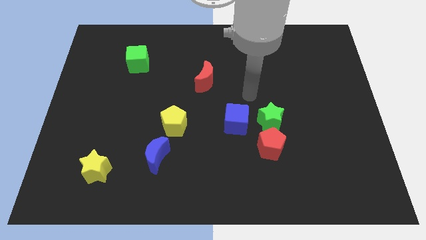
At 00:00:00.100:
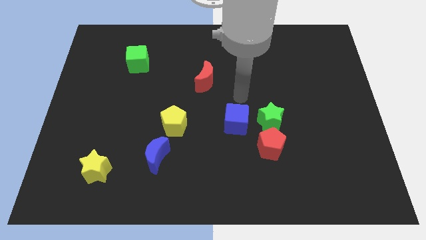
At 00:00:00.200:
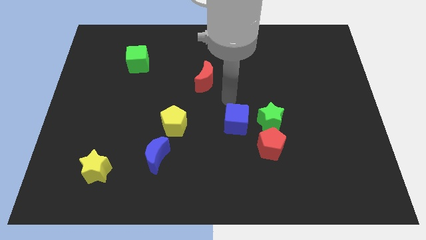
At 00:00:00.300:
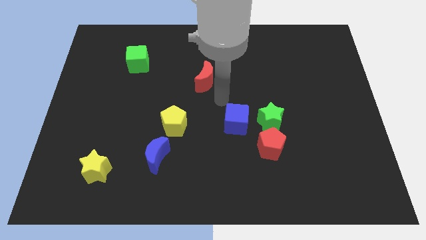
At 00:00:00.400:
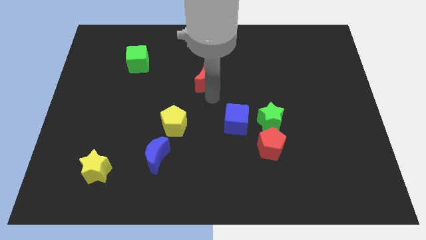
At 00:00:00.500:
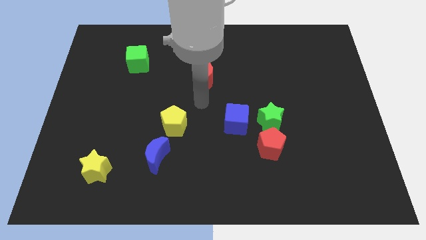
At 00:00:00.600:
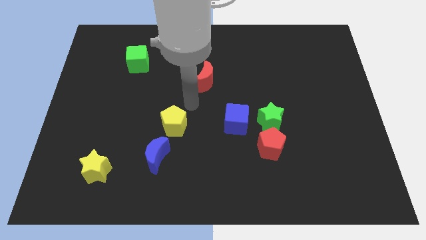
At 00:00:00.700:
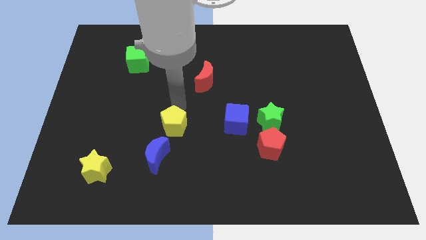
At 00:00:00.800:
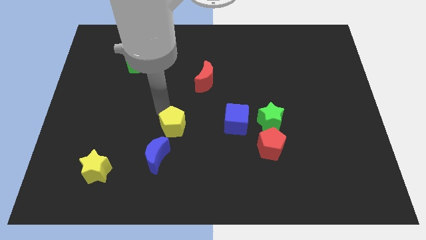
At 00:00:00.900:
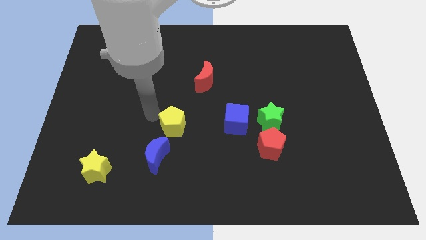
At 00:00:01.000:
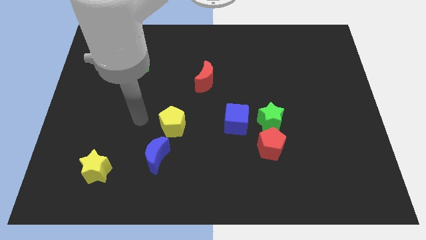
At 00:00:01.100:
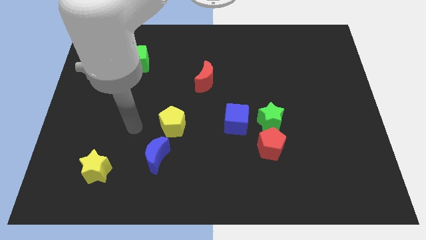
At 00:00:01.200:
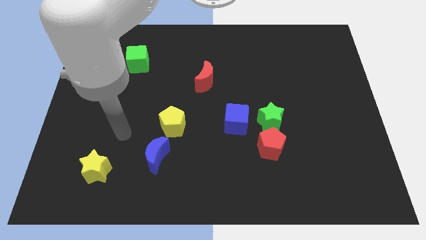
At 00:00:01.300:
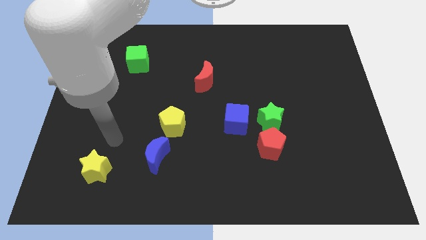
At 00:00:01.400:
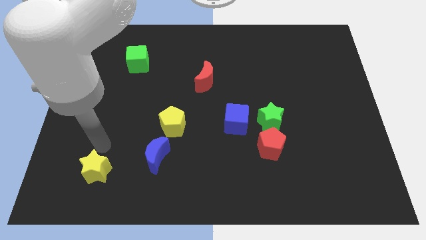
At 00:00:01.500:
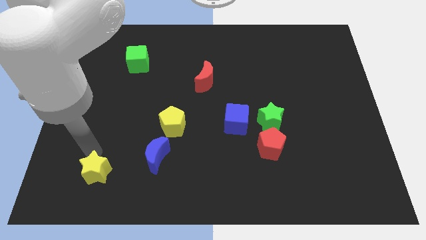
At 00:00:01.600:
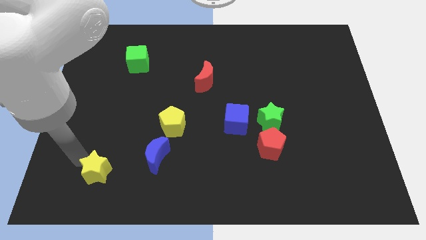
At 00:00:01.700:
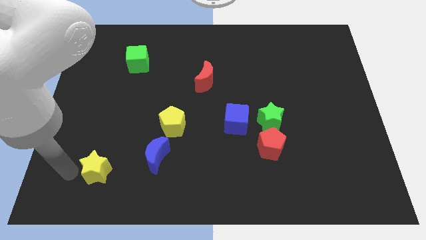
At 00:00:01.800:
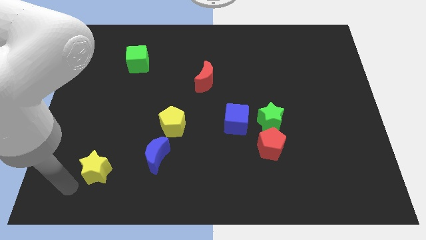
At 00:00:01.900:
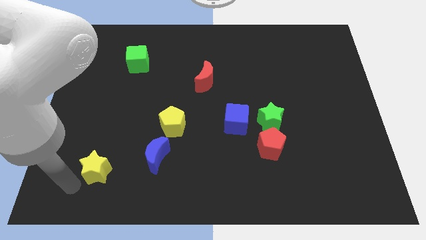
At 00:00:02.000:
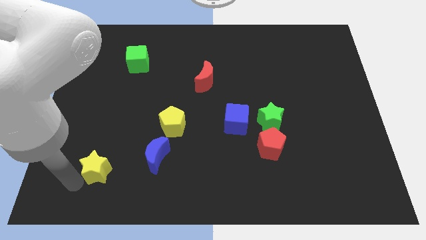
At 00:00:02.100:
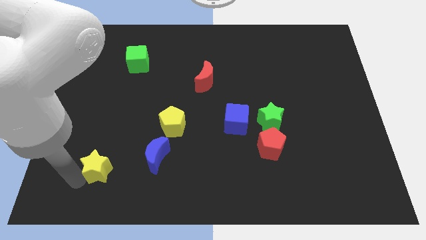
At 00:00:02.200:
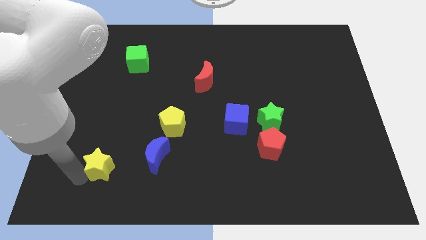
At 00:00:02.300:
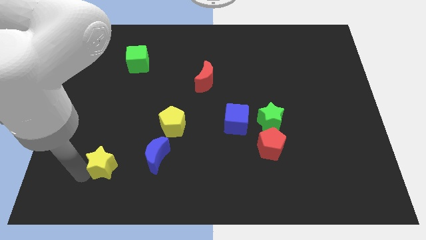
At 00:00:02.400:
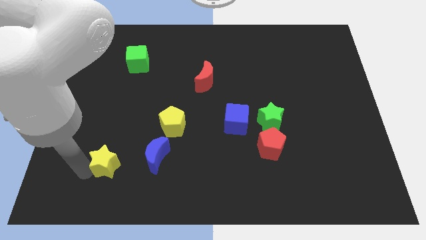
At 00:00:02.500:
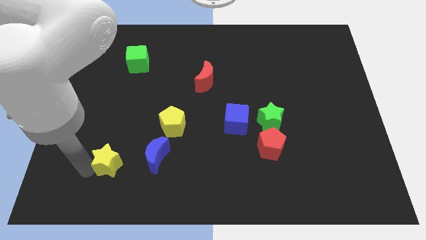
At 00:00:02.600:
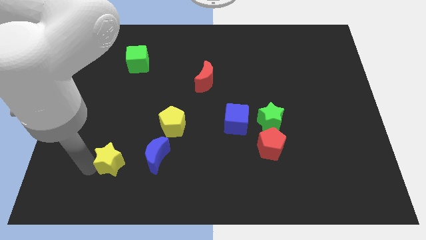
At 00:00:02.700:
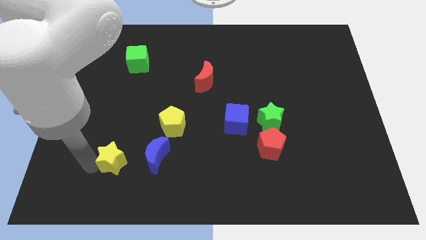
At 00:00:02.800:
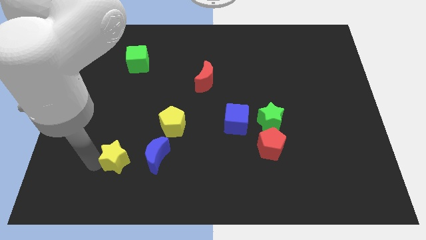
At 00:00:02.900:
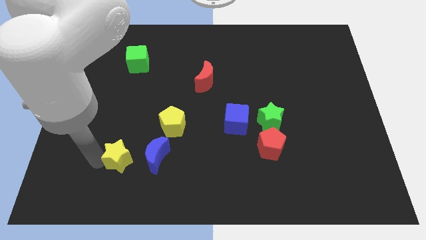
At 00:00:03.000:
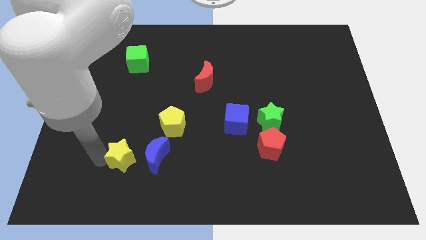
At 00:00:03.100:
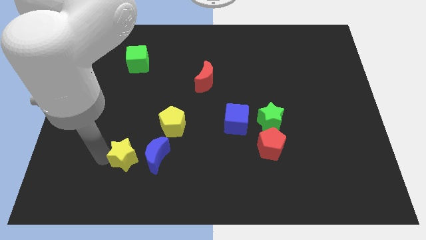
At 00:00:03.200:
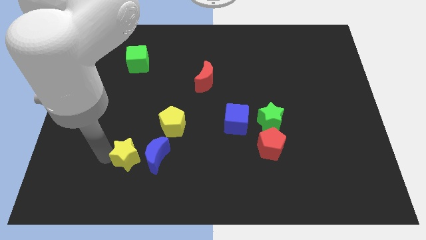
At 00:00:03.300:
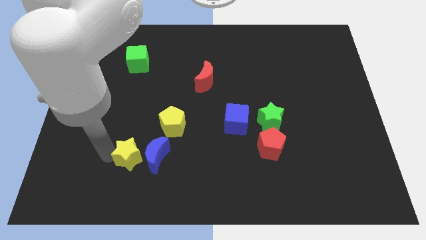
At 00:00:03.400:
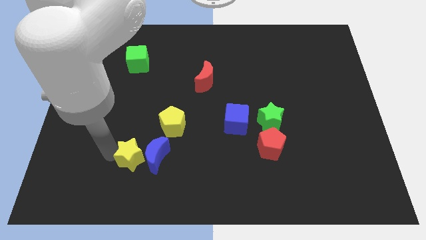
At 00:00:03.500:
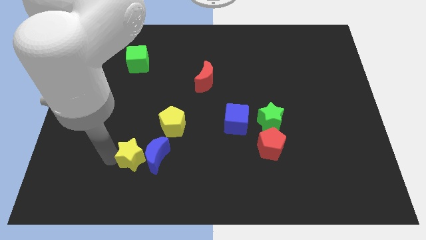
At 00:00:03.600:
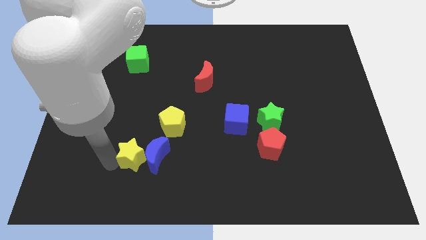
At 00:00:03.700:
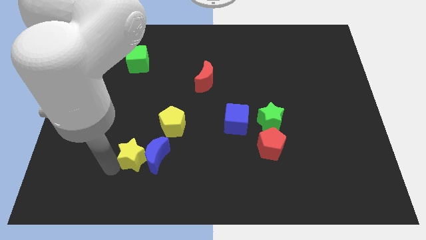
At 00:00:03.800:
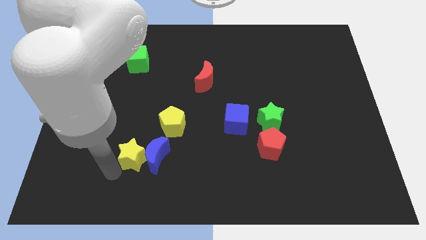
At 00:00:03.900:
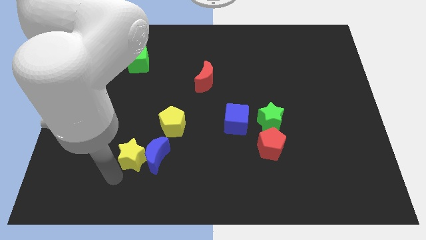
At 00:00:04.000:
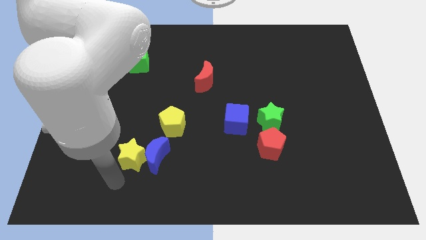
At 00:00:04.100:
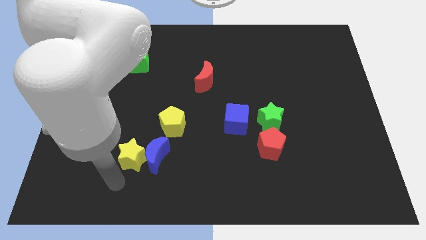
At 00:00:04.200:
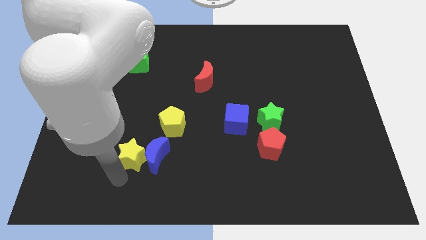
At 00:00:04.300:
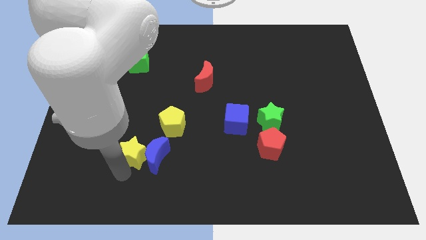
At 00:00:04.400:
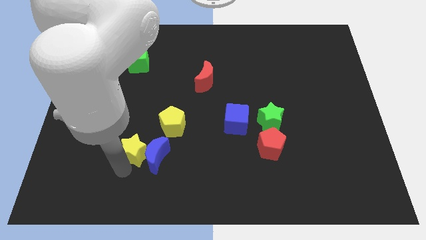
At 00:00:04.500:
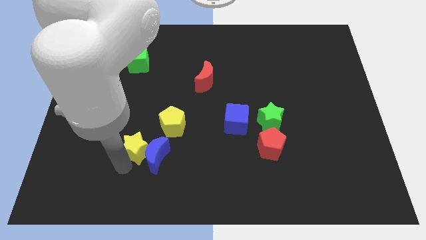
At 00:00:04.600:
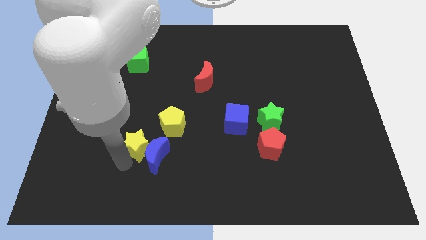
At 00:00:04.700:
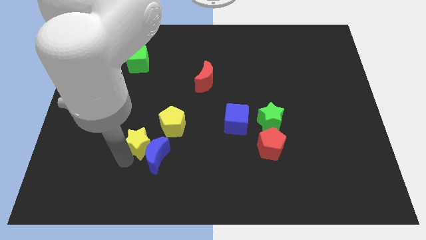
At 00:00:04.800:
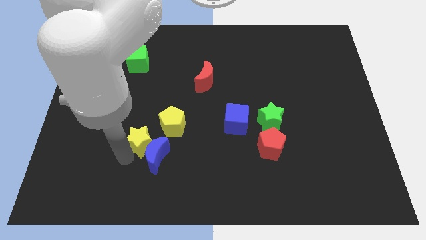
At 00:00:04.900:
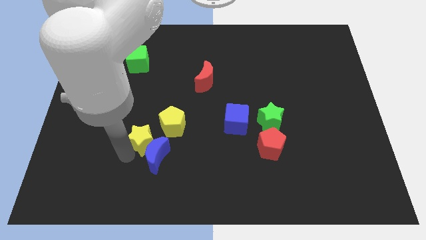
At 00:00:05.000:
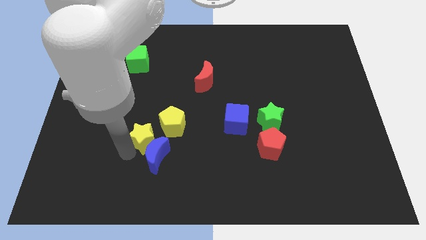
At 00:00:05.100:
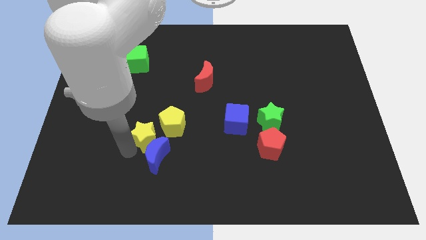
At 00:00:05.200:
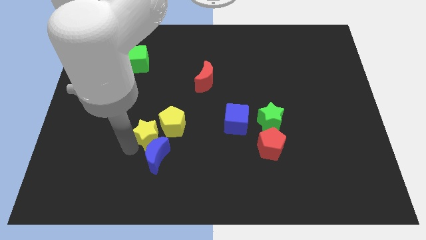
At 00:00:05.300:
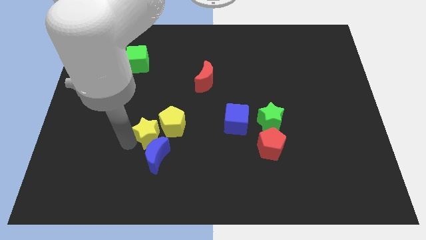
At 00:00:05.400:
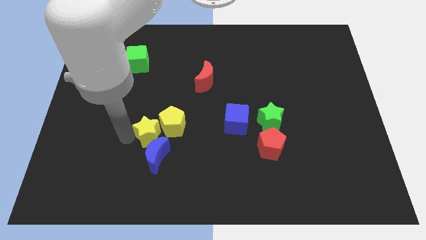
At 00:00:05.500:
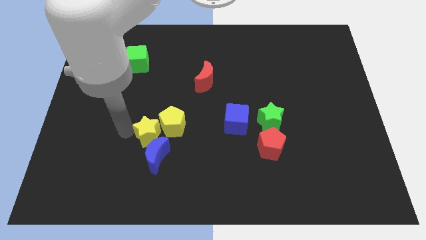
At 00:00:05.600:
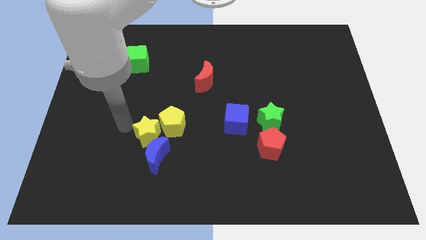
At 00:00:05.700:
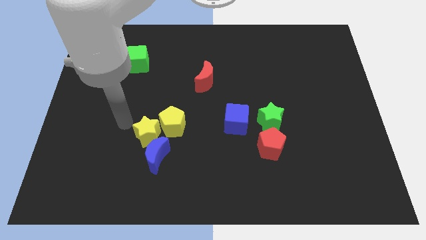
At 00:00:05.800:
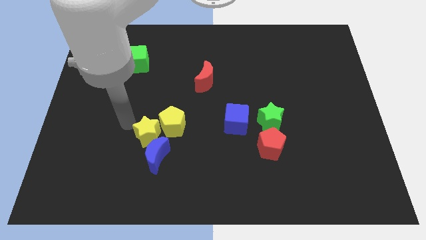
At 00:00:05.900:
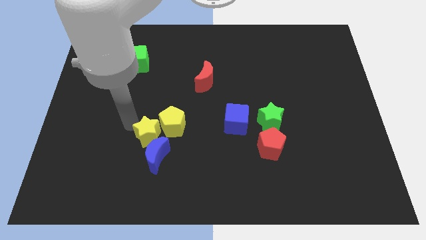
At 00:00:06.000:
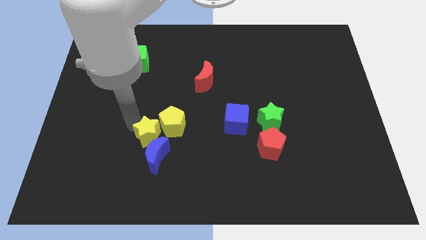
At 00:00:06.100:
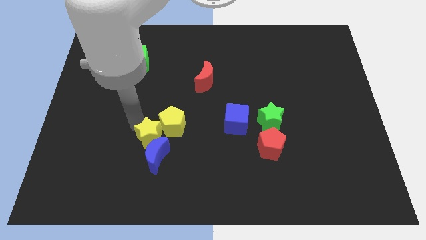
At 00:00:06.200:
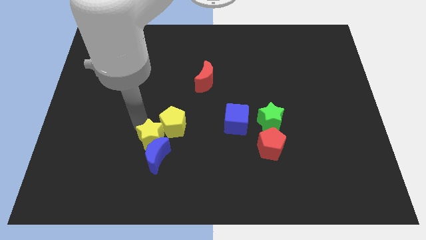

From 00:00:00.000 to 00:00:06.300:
slide the yellow star to the top right side of the blue moon
